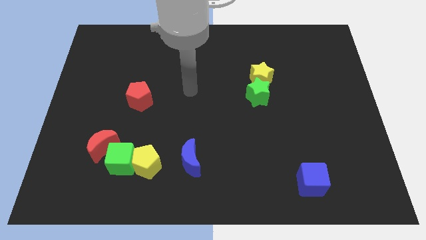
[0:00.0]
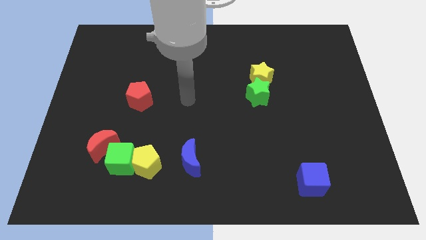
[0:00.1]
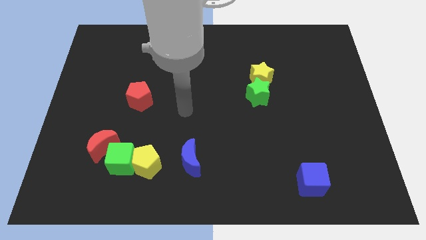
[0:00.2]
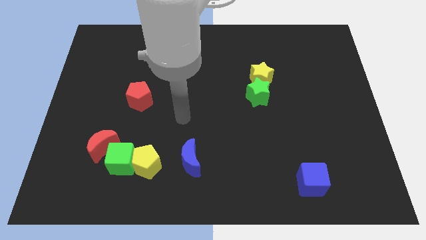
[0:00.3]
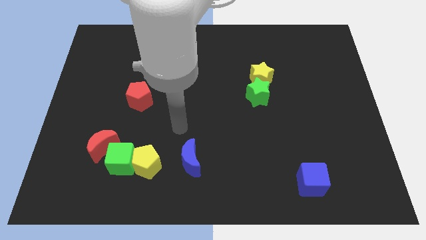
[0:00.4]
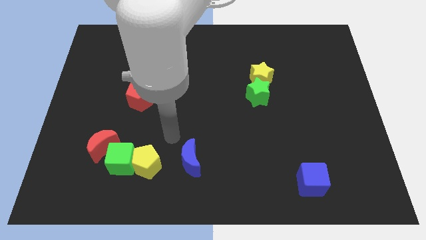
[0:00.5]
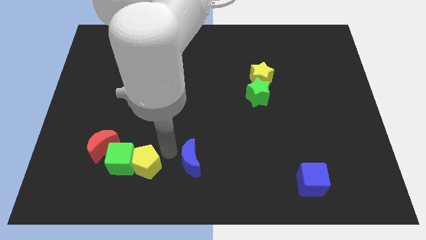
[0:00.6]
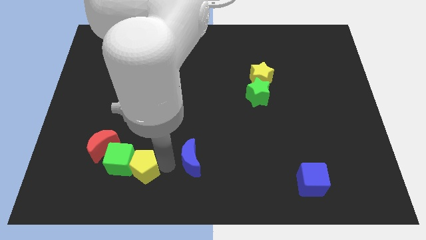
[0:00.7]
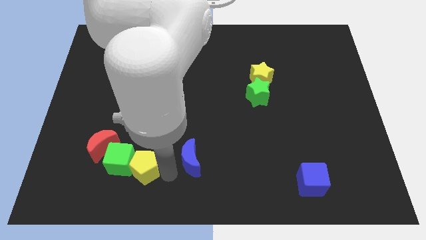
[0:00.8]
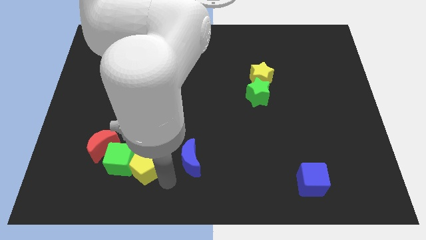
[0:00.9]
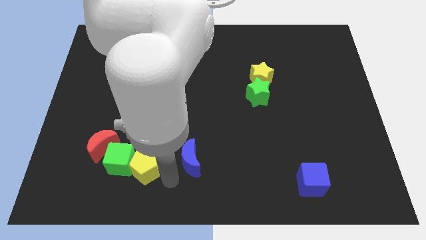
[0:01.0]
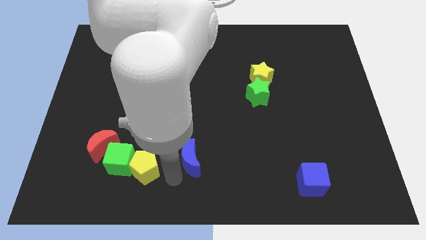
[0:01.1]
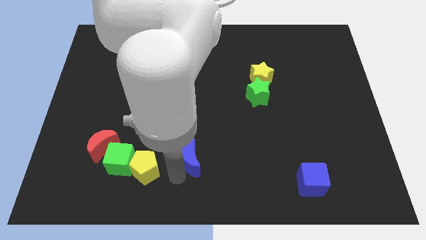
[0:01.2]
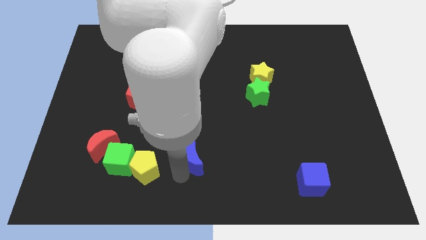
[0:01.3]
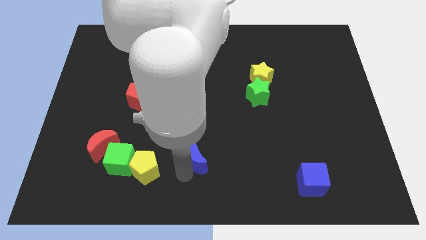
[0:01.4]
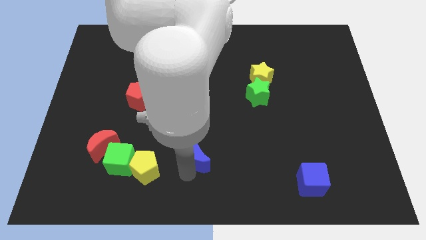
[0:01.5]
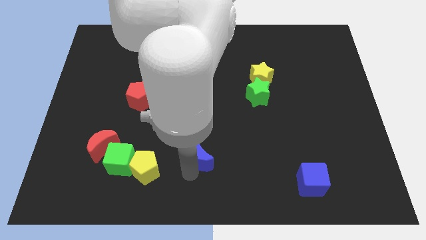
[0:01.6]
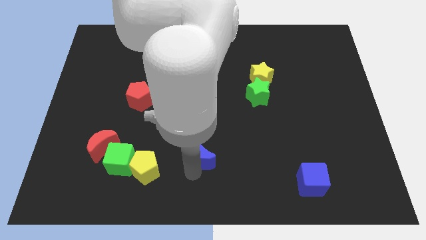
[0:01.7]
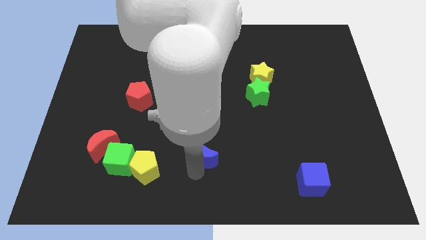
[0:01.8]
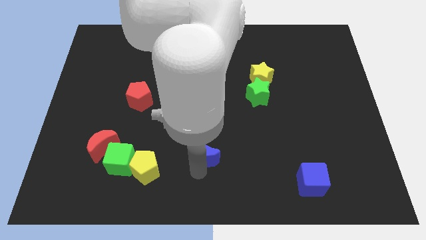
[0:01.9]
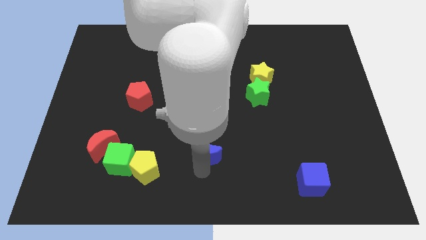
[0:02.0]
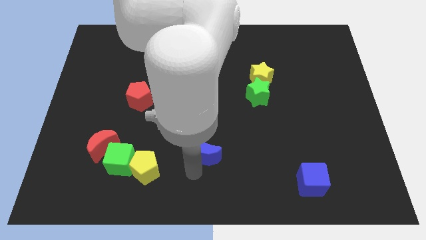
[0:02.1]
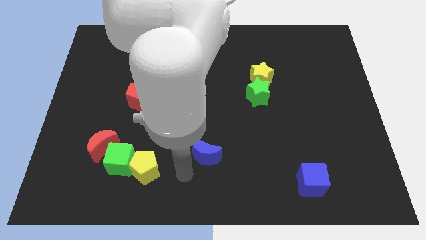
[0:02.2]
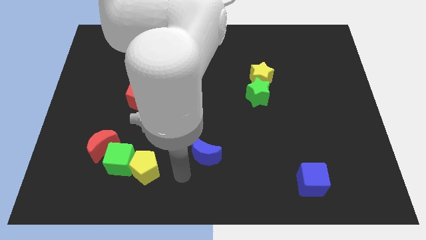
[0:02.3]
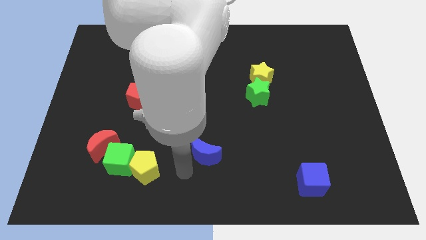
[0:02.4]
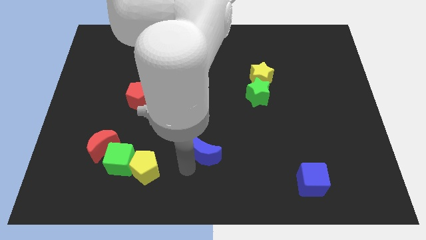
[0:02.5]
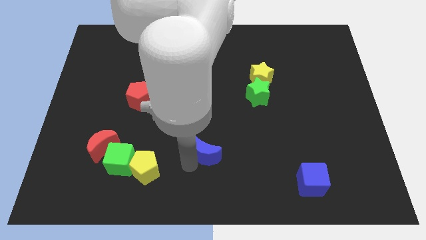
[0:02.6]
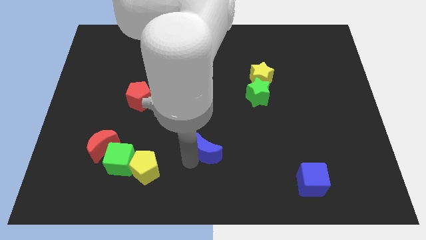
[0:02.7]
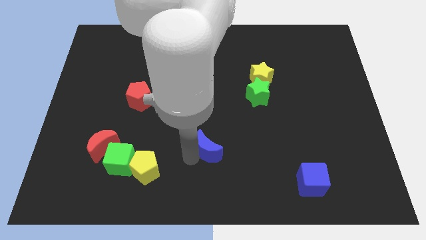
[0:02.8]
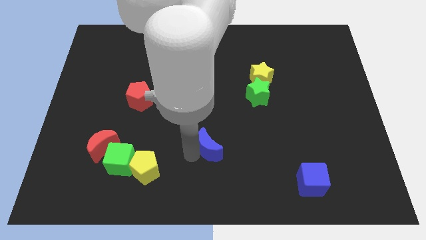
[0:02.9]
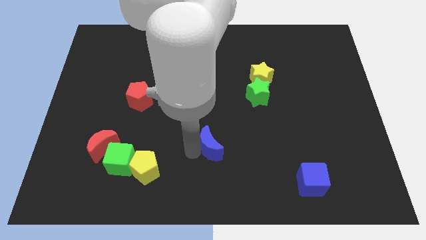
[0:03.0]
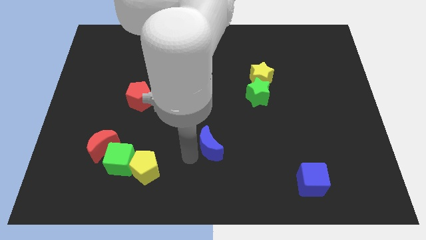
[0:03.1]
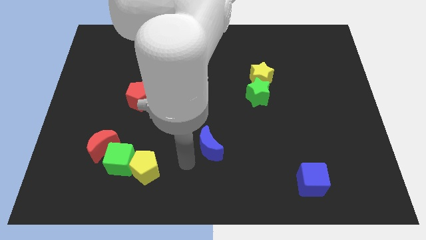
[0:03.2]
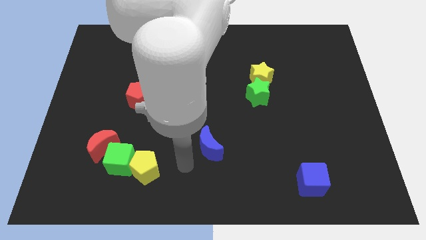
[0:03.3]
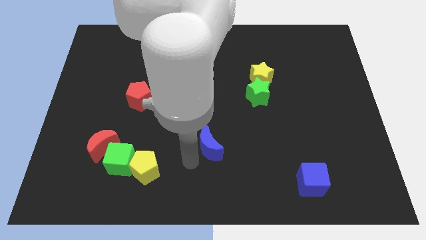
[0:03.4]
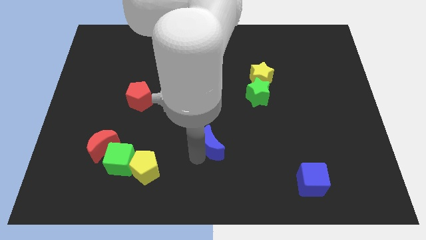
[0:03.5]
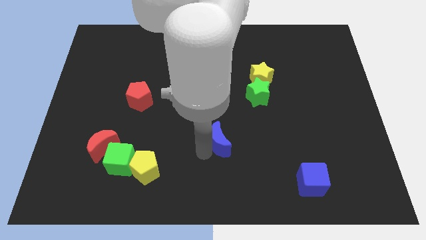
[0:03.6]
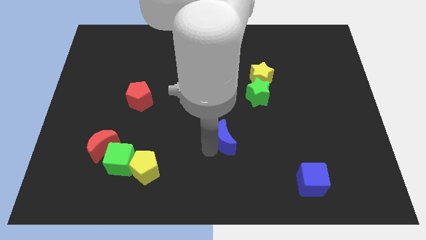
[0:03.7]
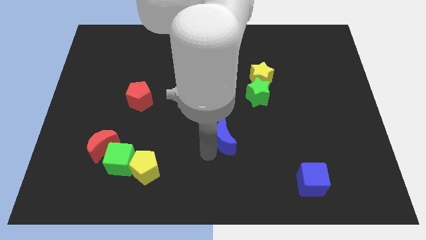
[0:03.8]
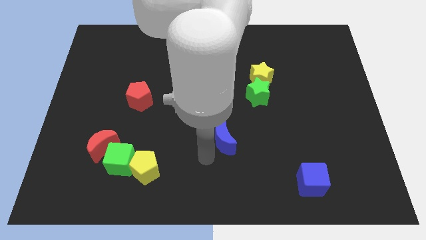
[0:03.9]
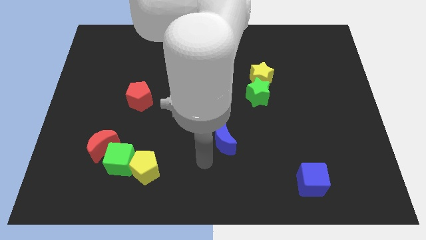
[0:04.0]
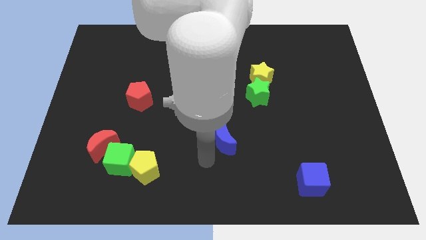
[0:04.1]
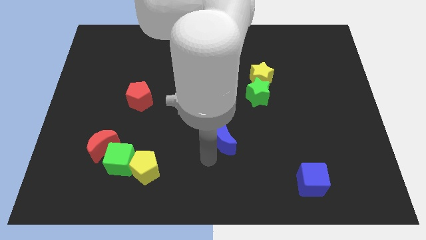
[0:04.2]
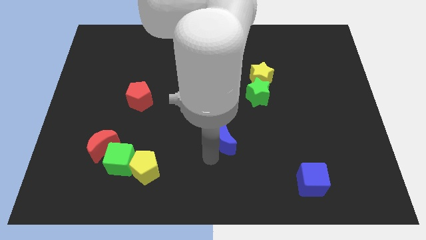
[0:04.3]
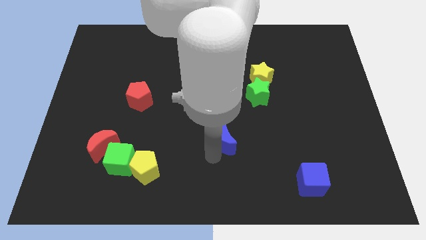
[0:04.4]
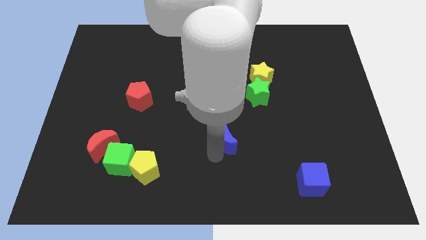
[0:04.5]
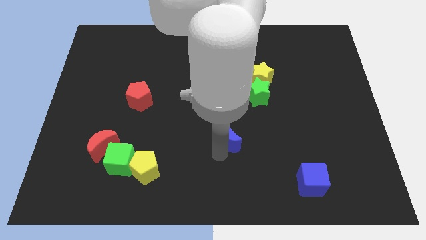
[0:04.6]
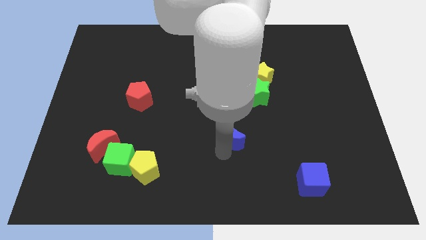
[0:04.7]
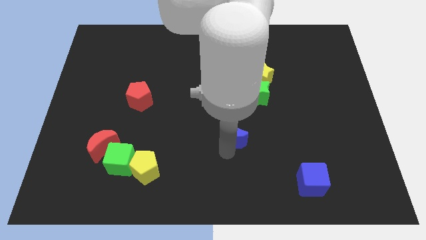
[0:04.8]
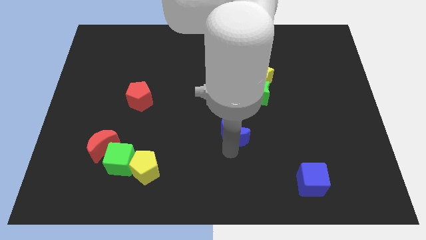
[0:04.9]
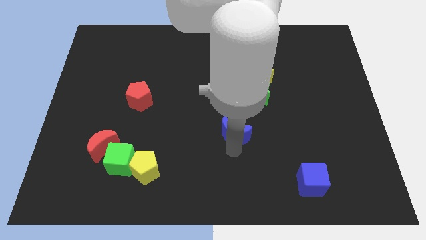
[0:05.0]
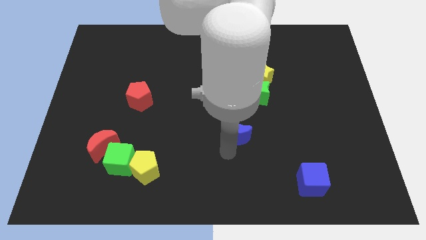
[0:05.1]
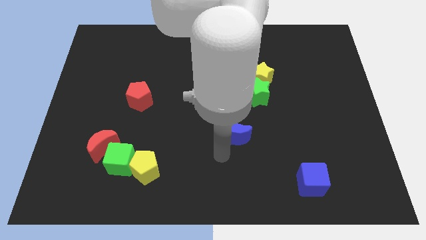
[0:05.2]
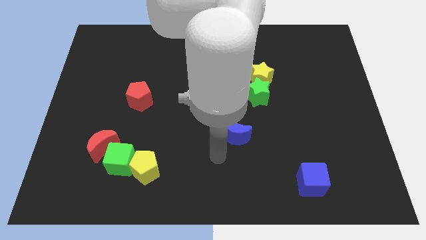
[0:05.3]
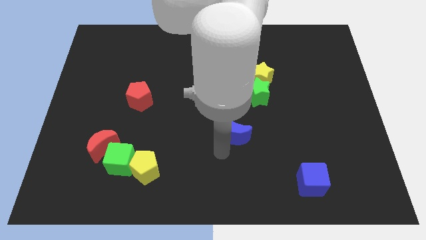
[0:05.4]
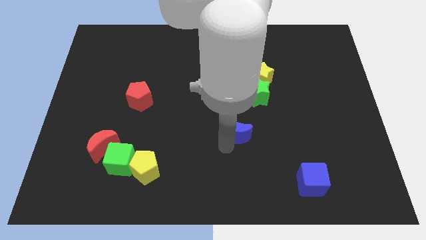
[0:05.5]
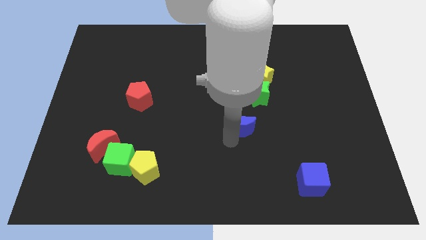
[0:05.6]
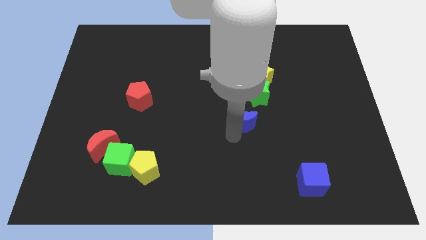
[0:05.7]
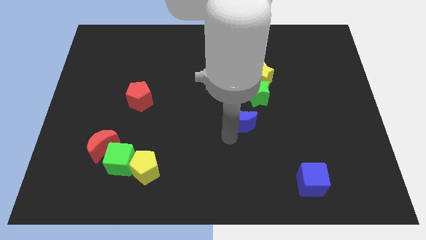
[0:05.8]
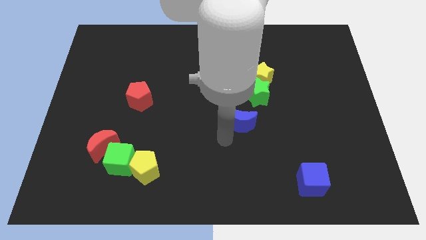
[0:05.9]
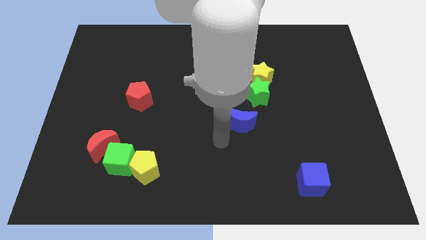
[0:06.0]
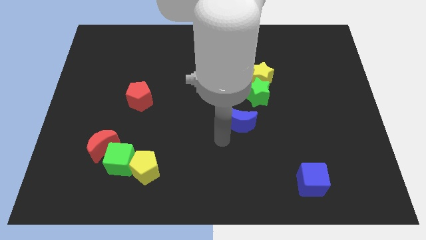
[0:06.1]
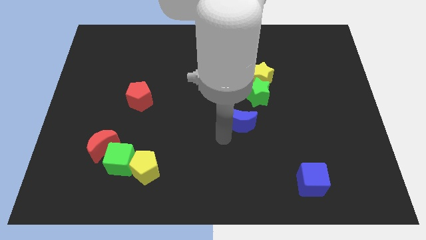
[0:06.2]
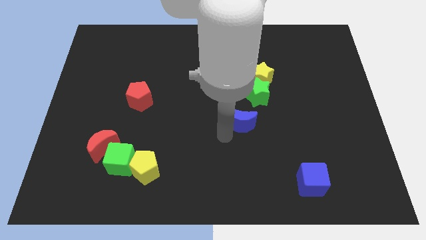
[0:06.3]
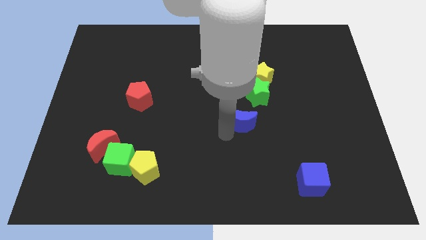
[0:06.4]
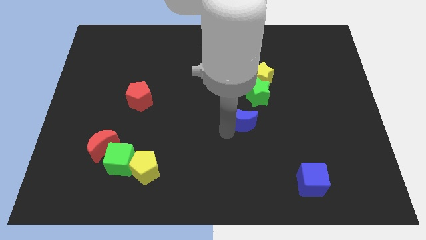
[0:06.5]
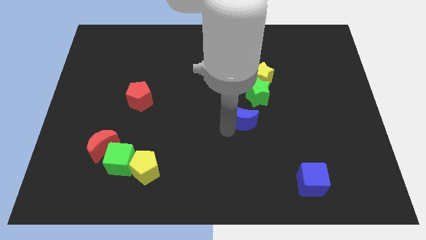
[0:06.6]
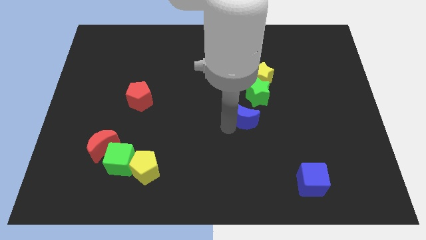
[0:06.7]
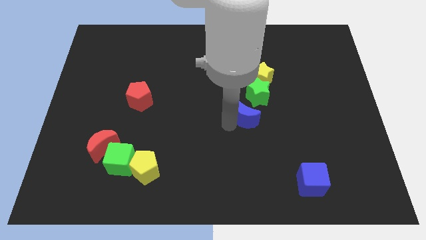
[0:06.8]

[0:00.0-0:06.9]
put the blue moon below the yellow star
